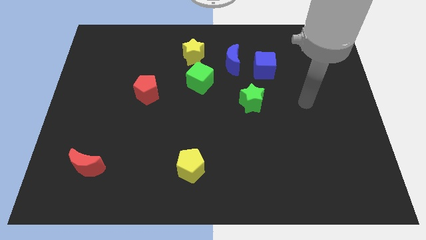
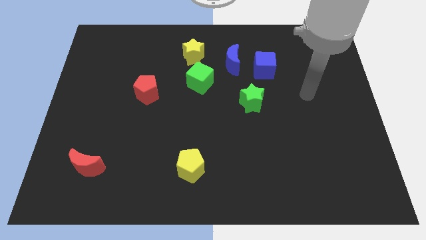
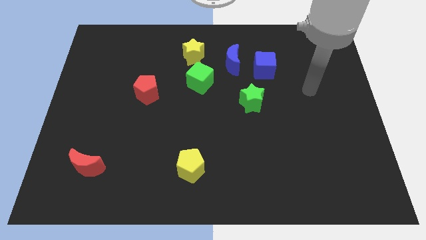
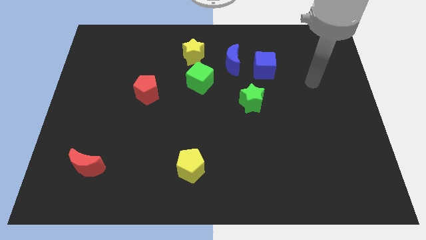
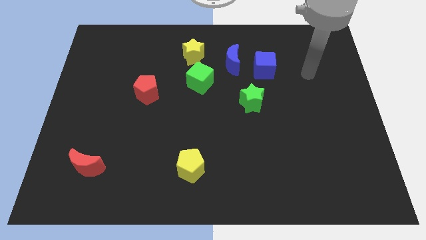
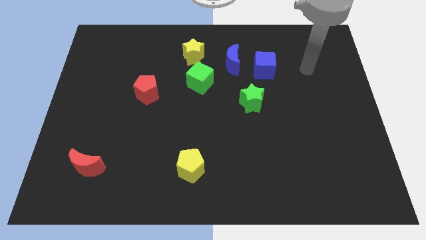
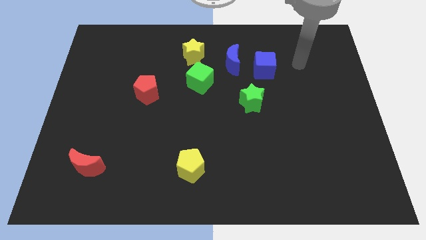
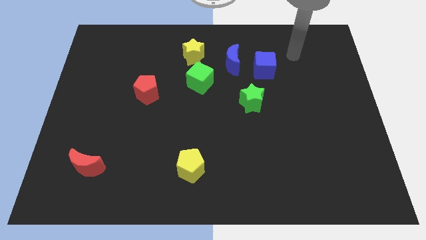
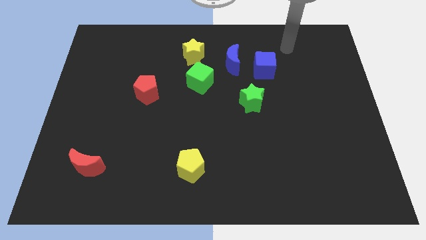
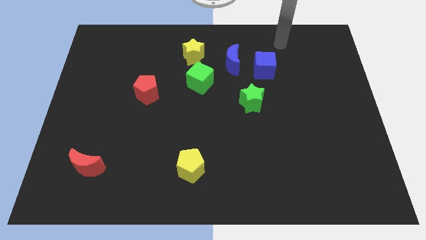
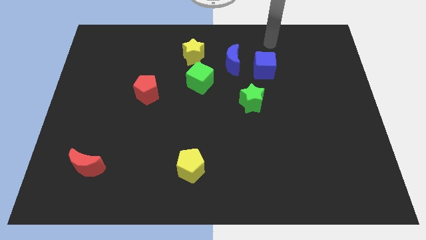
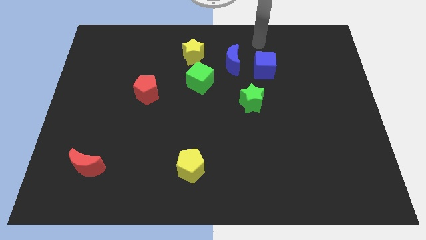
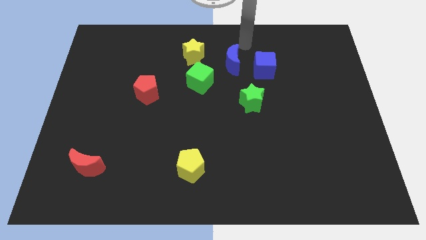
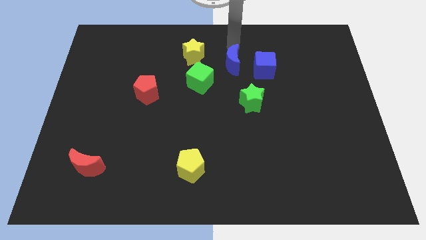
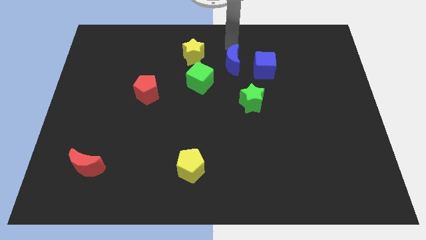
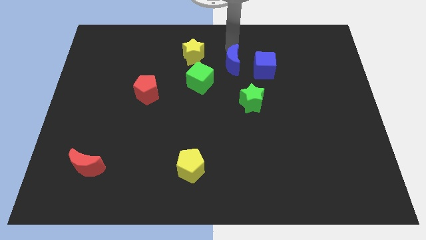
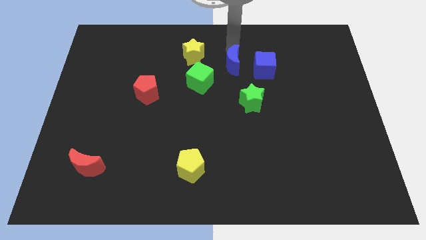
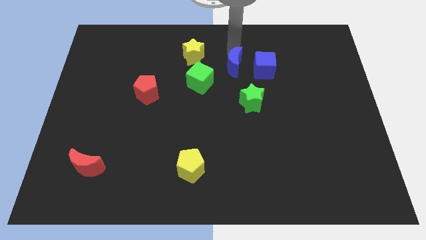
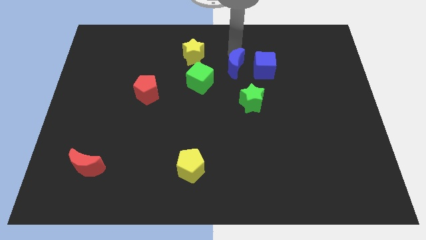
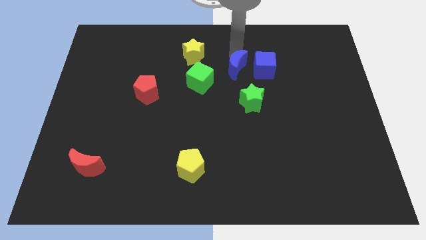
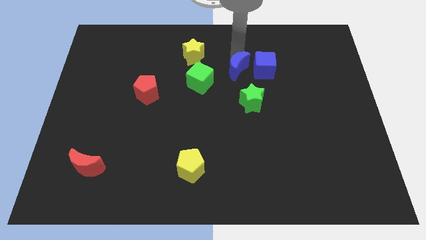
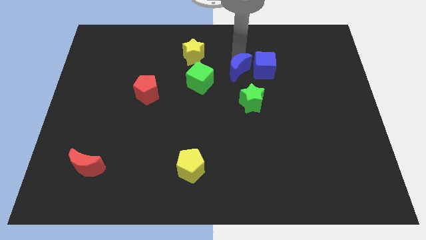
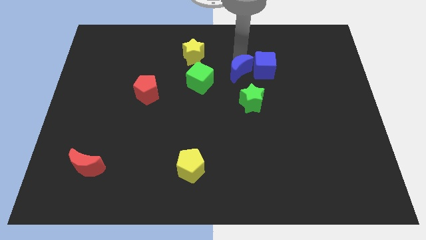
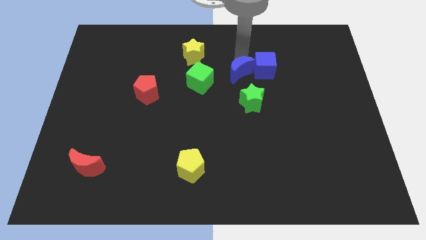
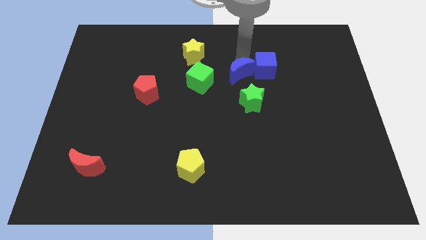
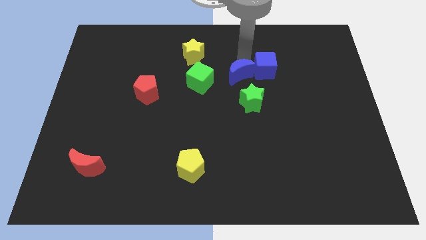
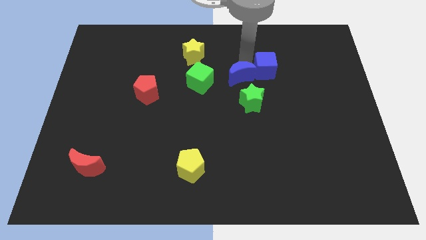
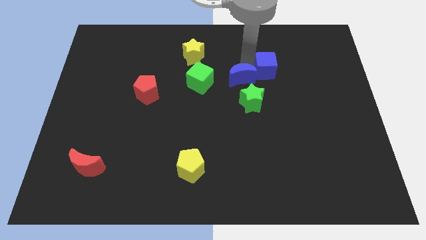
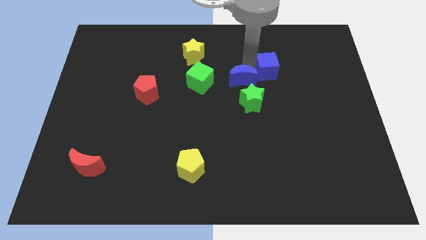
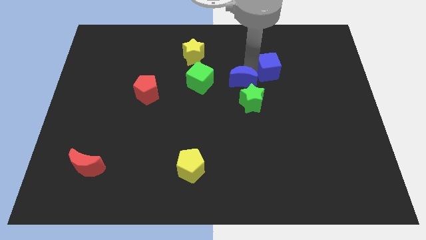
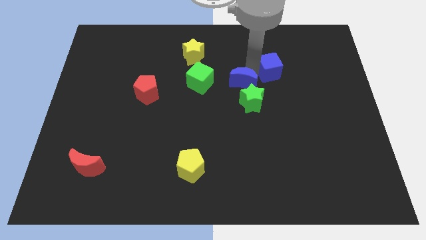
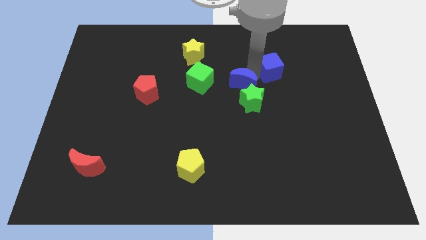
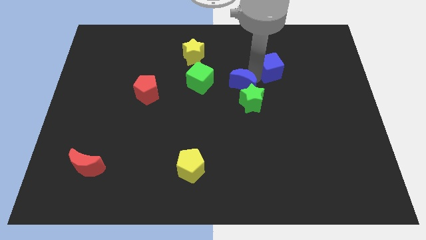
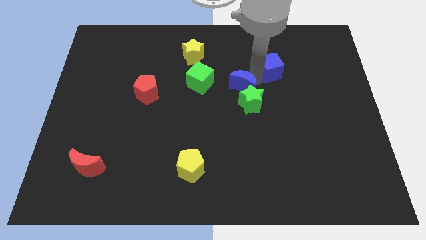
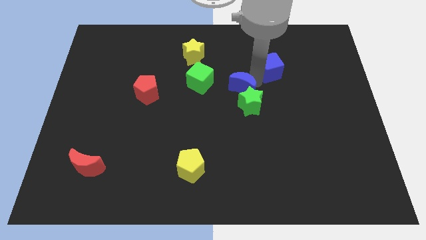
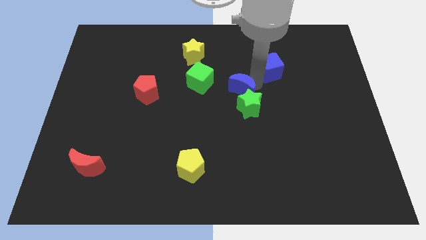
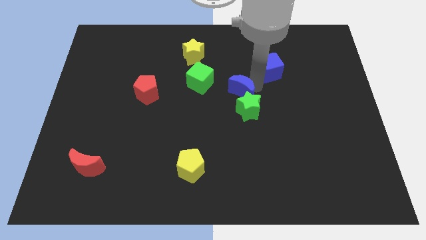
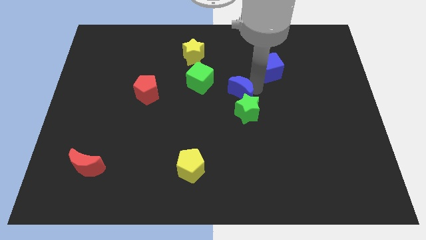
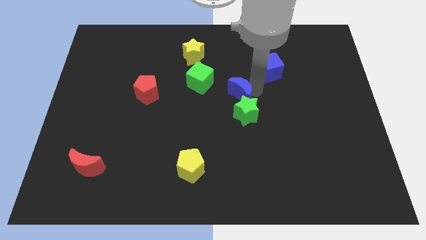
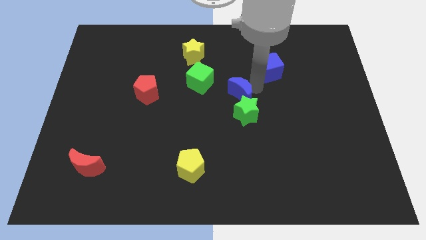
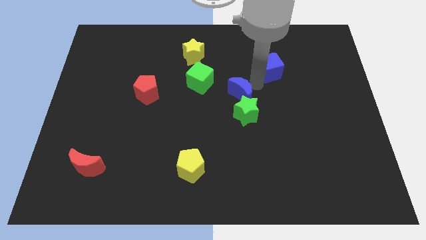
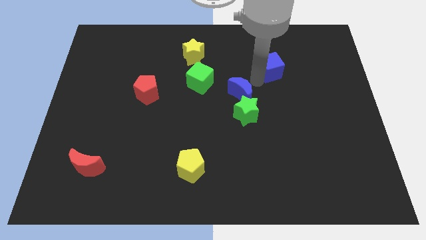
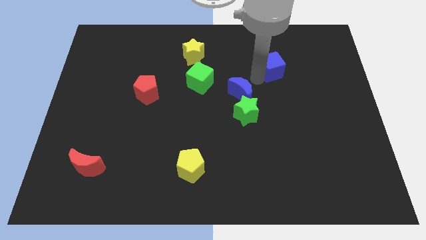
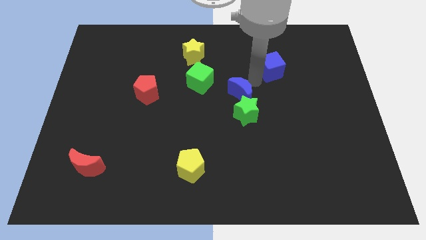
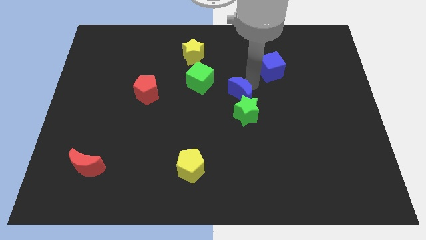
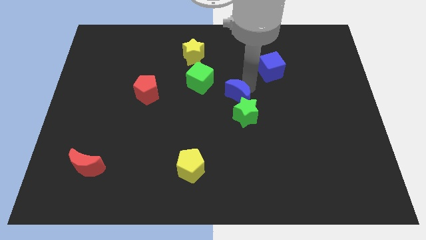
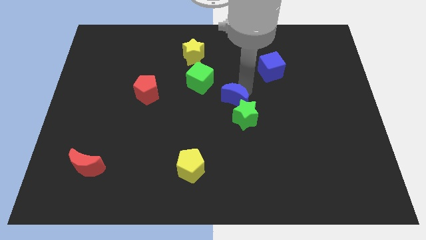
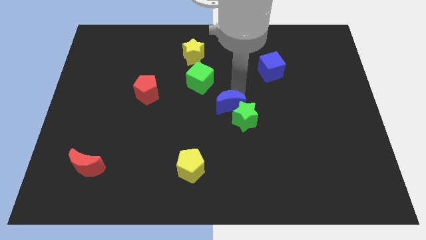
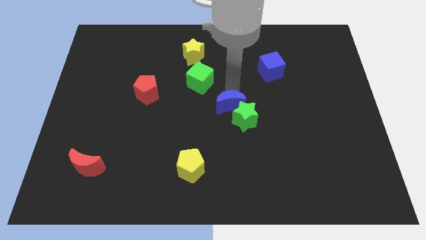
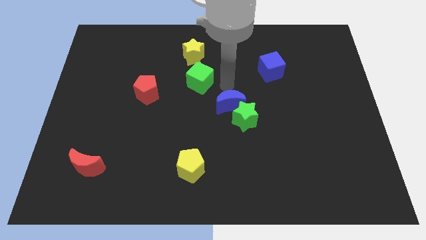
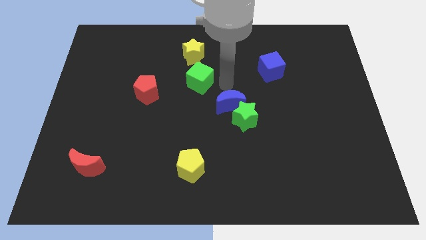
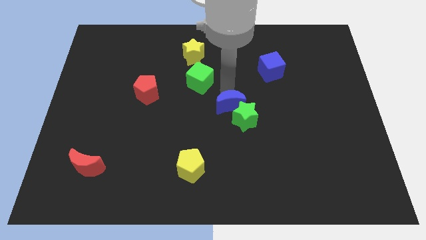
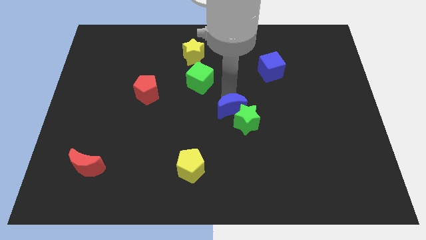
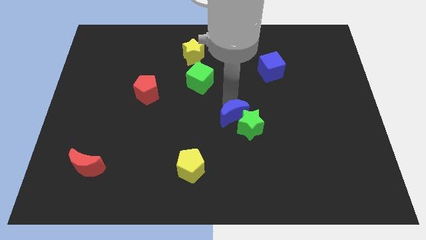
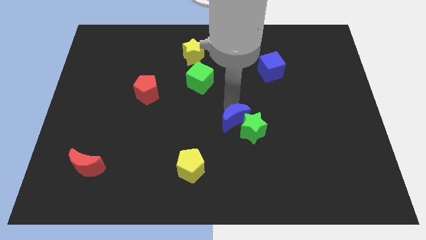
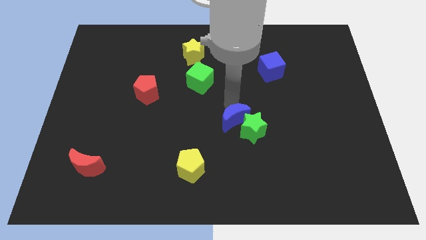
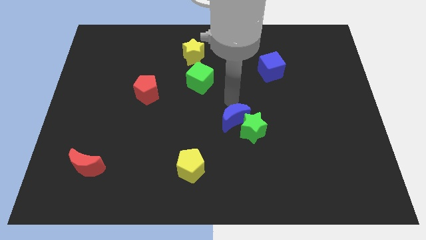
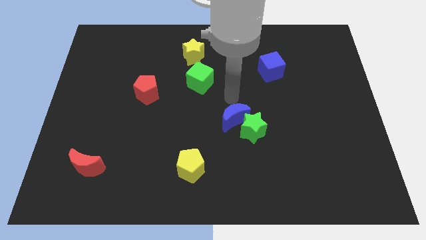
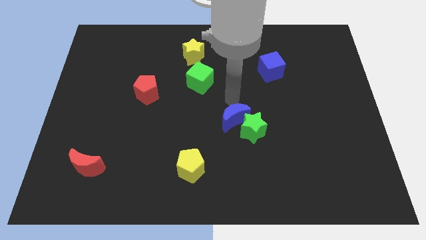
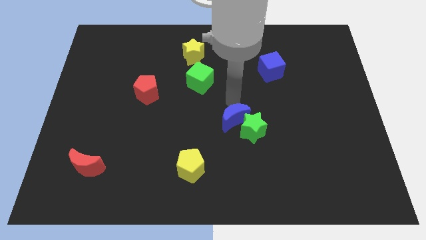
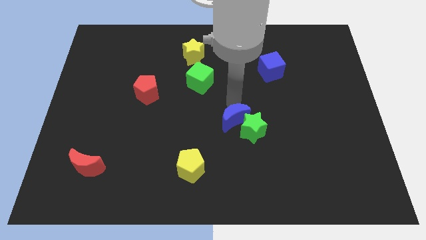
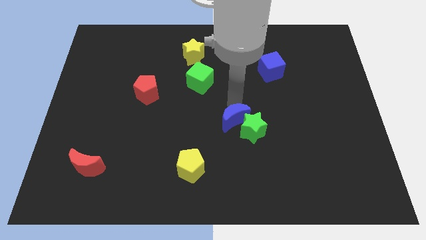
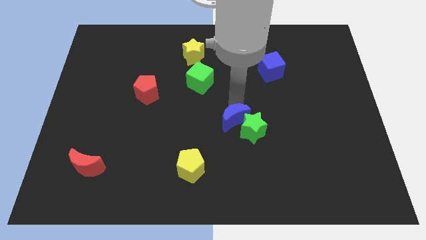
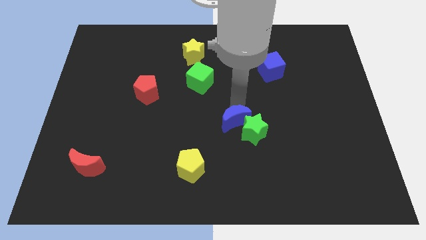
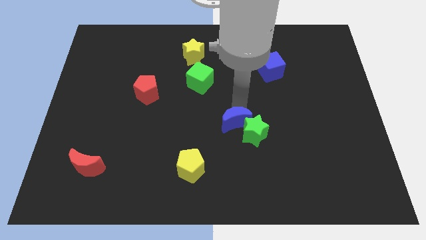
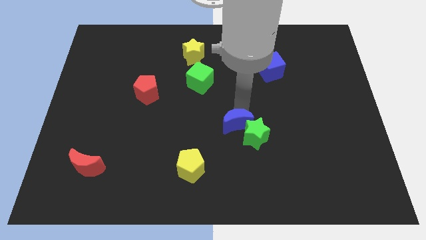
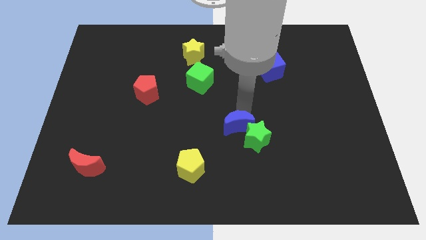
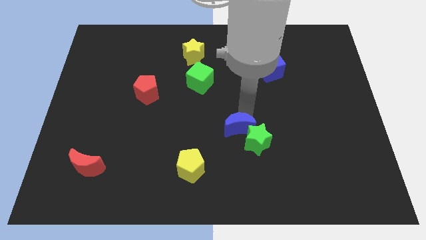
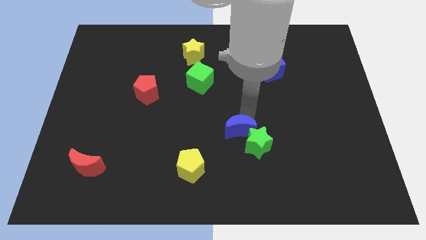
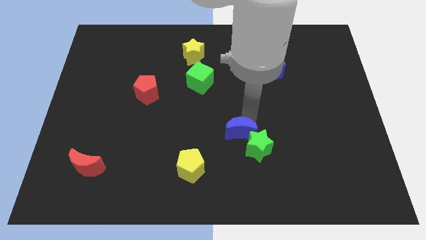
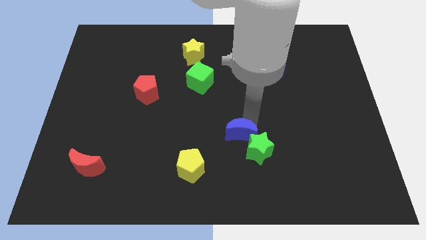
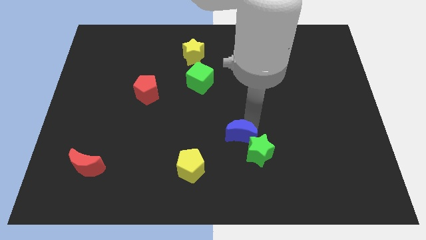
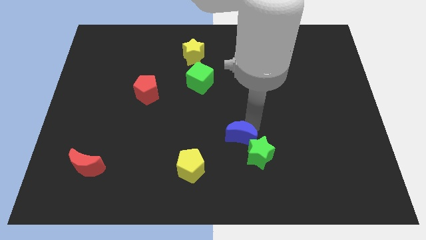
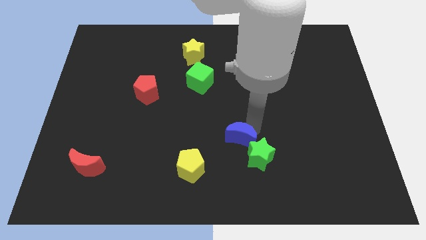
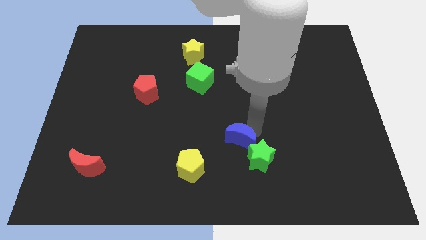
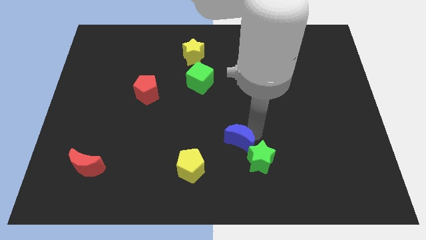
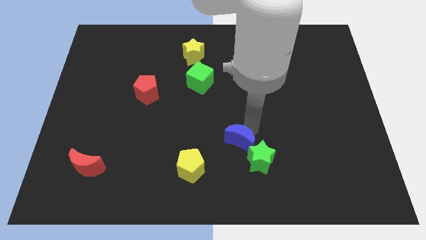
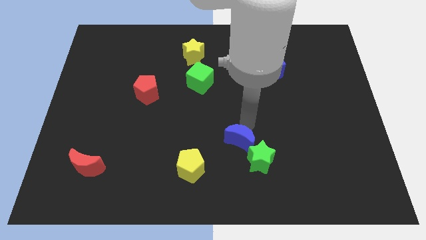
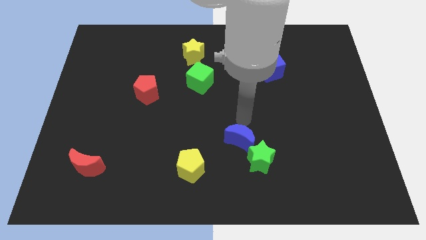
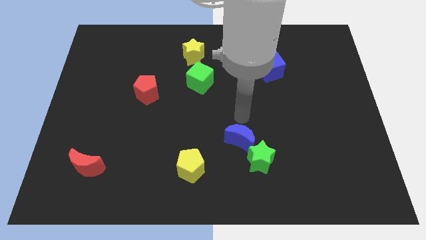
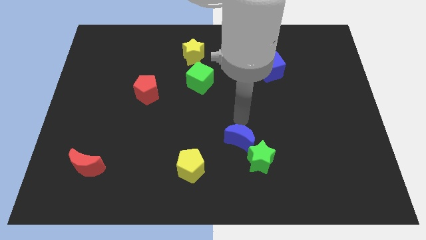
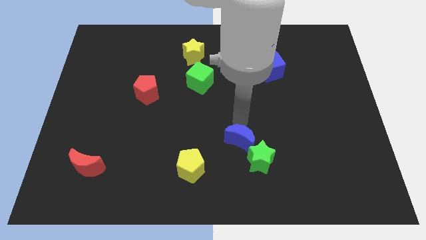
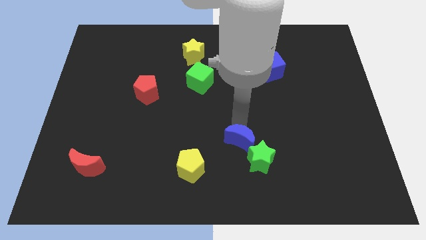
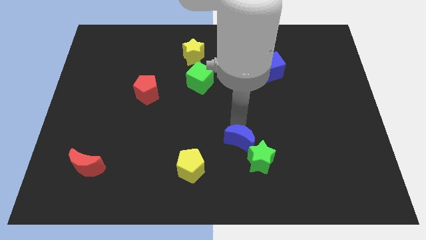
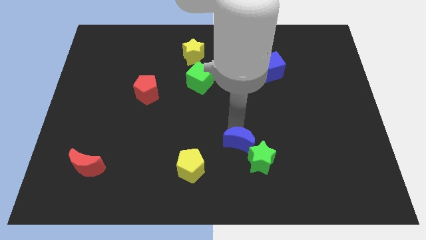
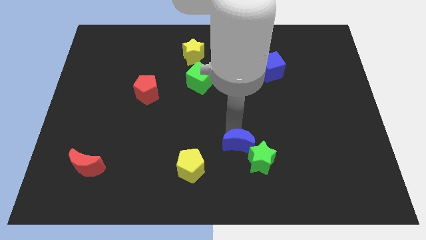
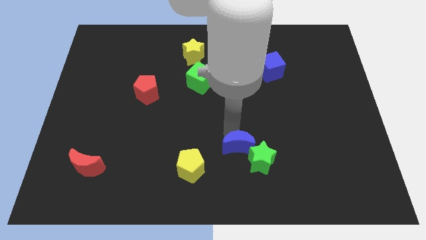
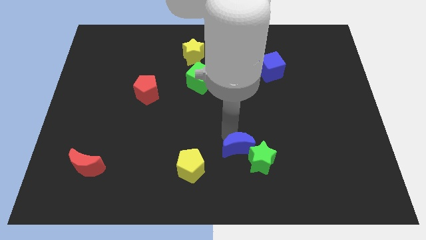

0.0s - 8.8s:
move the blue moon to the right of the yellow pentagon
